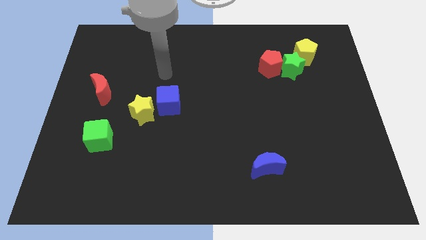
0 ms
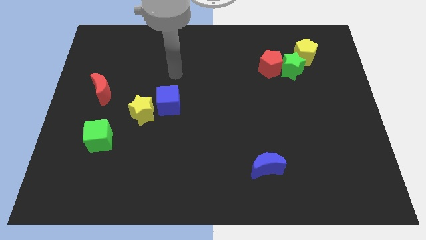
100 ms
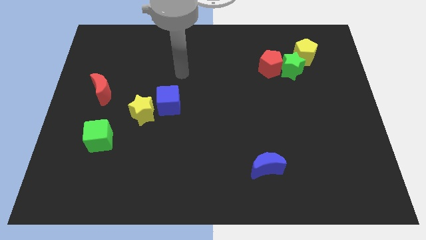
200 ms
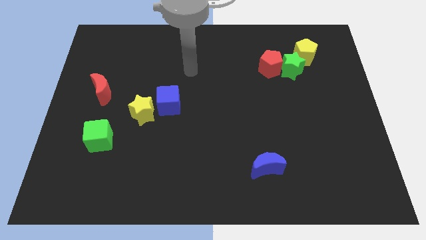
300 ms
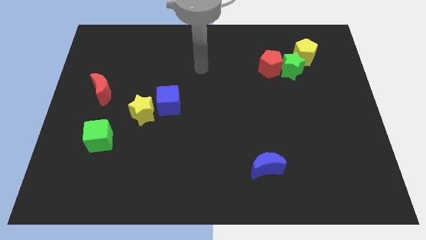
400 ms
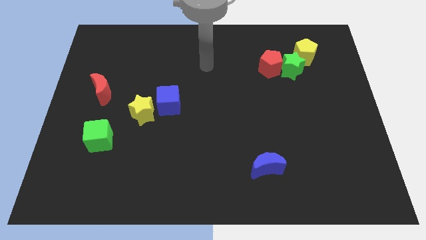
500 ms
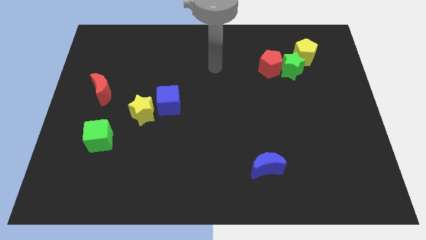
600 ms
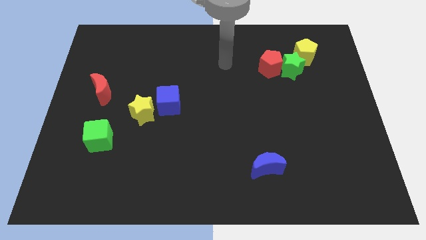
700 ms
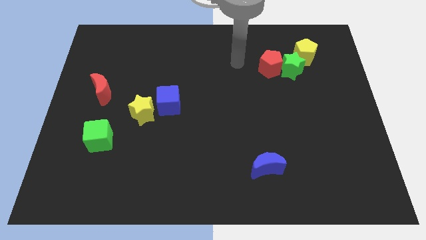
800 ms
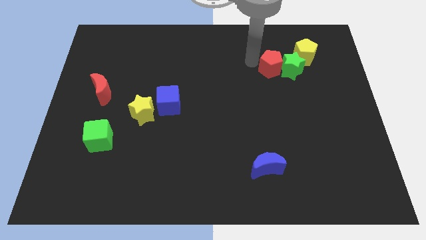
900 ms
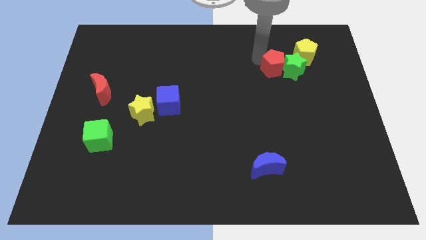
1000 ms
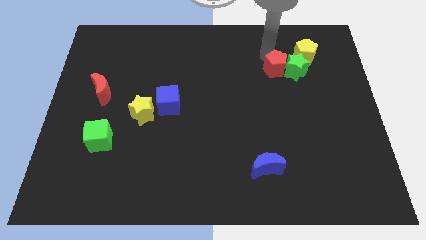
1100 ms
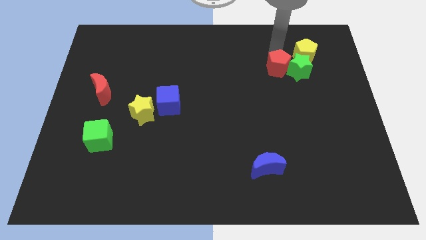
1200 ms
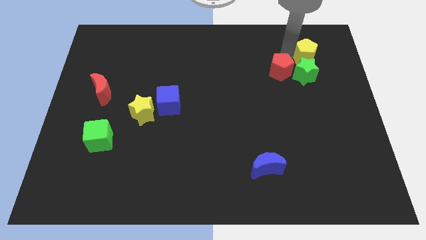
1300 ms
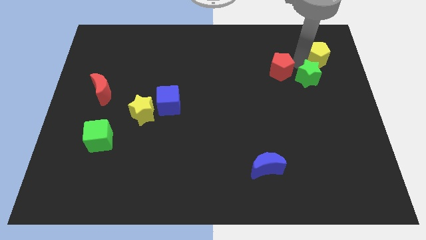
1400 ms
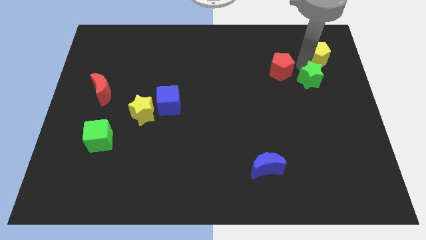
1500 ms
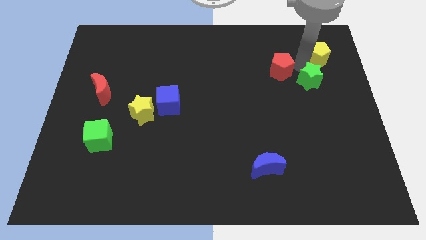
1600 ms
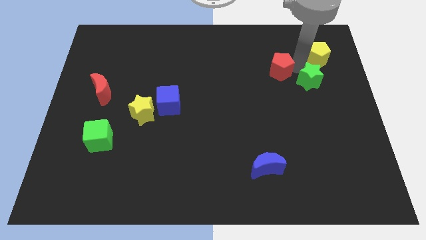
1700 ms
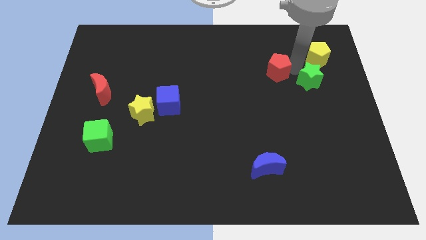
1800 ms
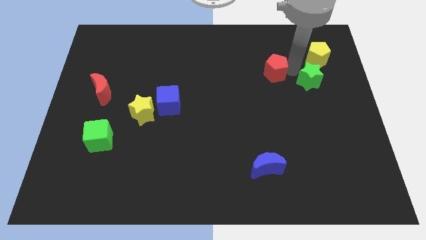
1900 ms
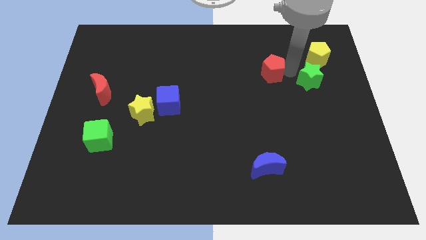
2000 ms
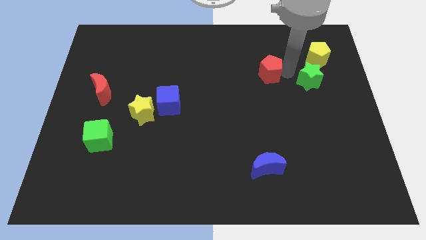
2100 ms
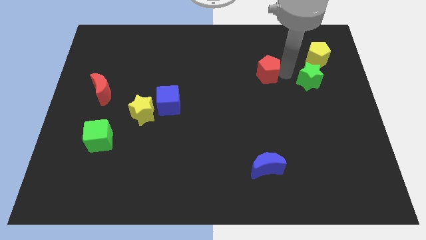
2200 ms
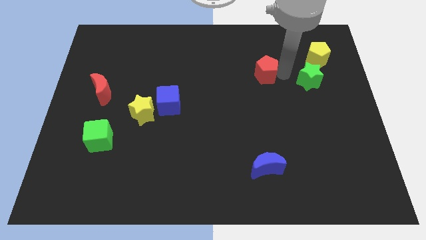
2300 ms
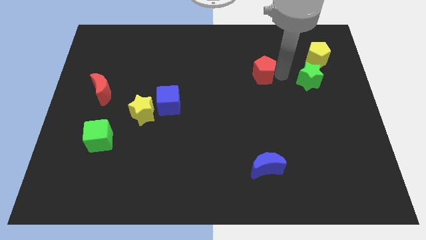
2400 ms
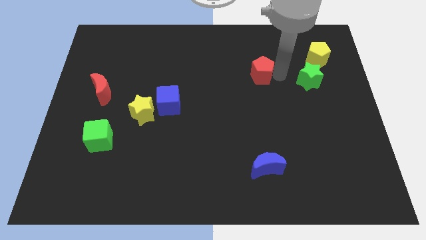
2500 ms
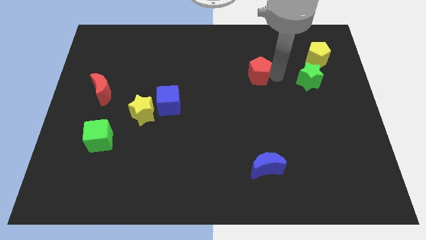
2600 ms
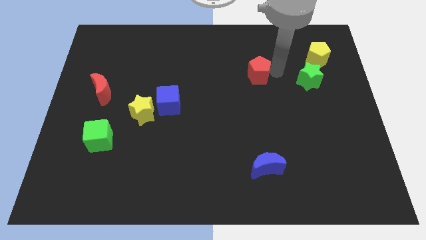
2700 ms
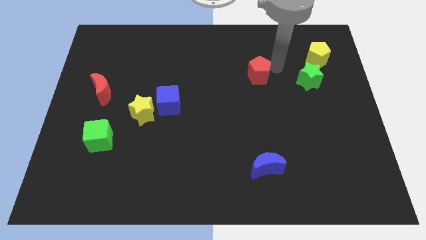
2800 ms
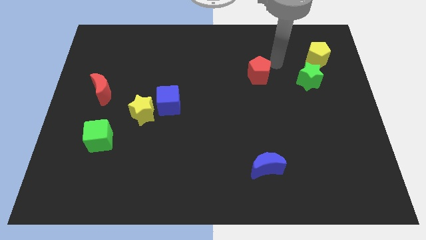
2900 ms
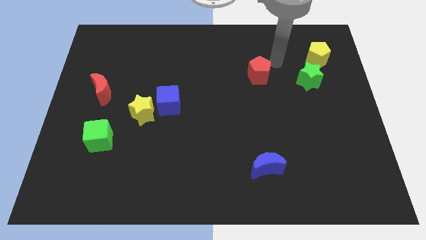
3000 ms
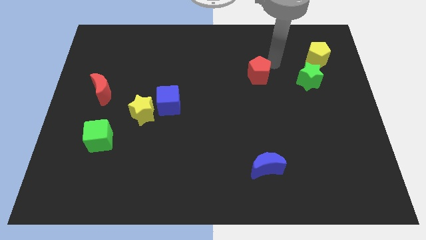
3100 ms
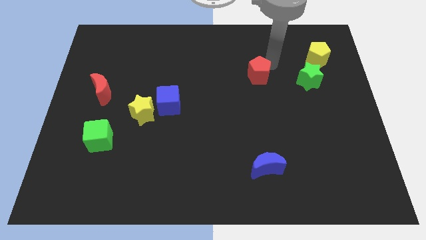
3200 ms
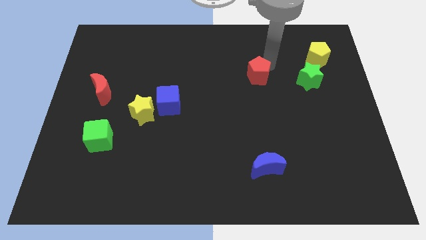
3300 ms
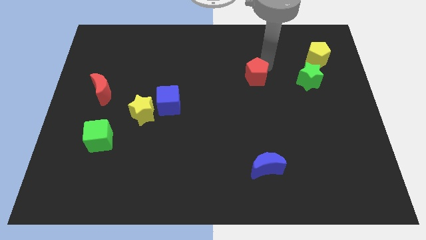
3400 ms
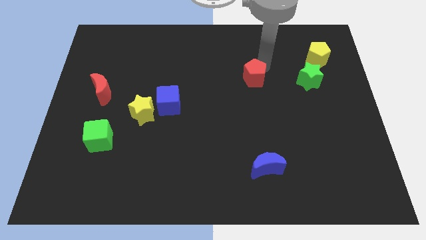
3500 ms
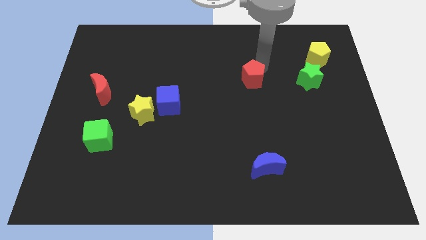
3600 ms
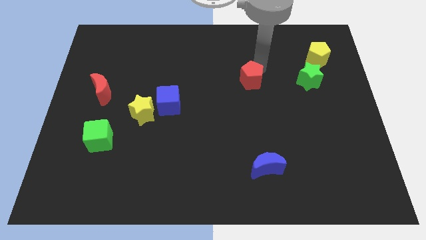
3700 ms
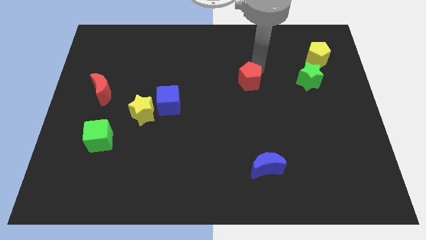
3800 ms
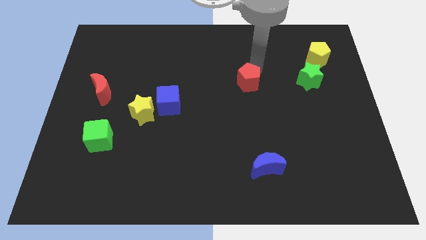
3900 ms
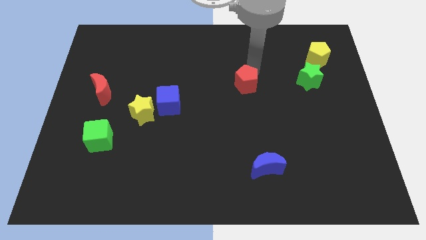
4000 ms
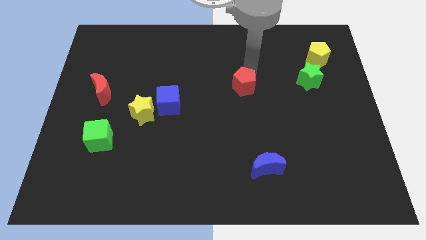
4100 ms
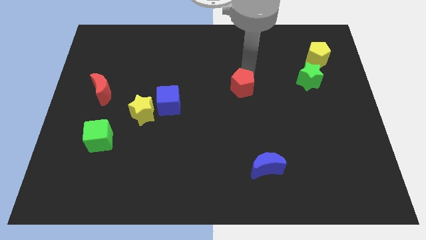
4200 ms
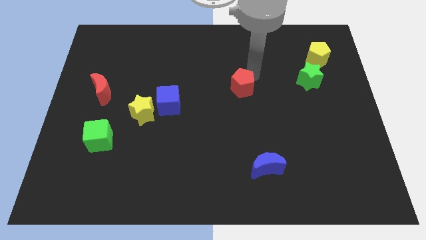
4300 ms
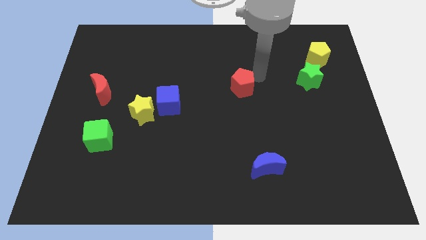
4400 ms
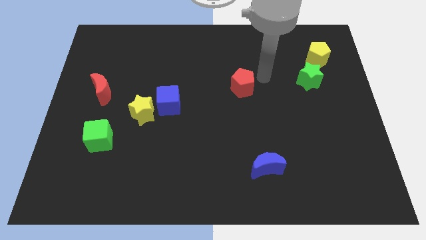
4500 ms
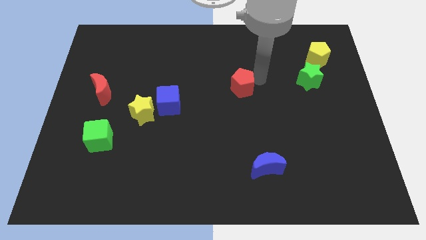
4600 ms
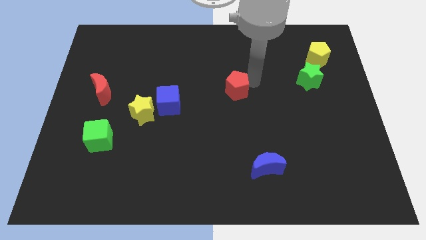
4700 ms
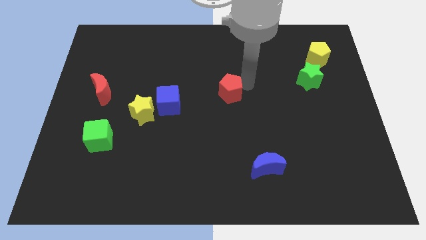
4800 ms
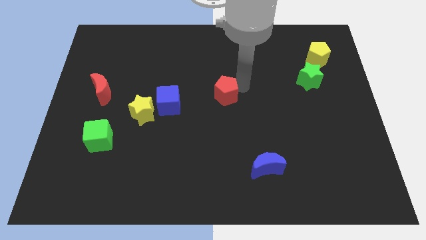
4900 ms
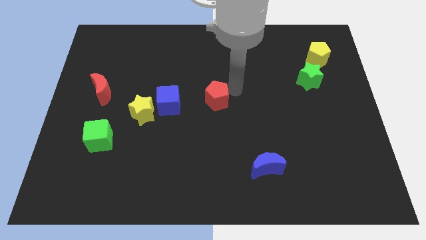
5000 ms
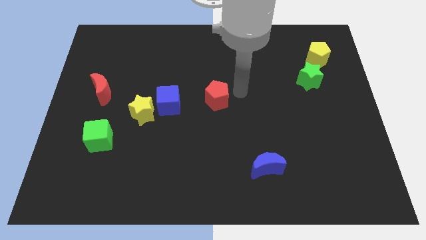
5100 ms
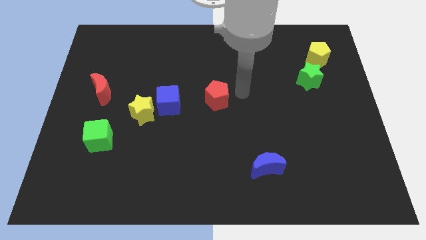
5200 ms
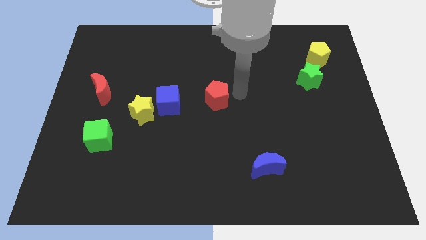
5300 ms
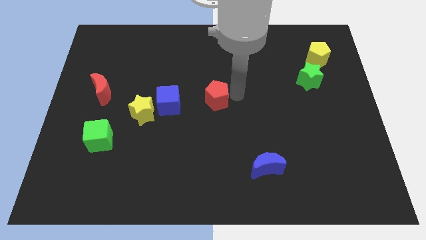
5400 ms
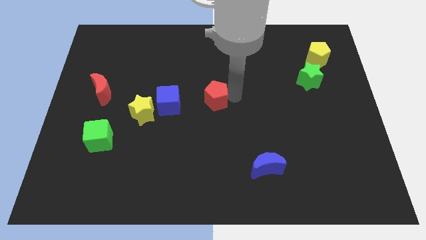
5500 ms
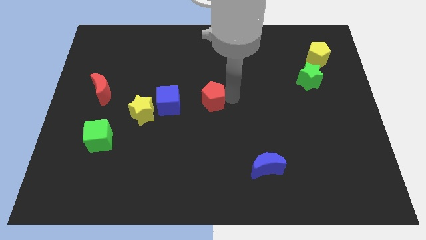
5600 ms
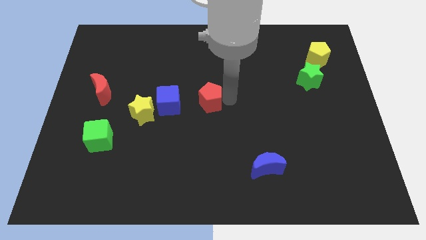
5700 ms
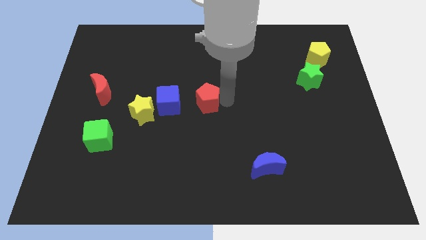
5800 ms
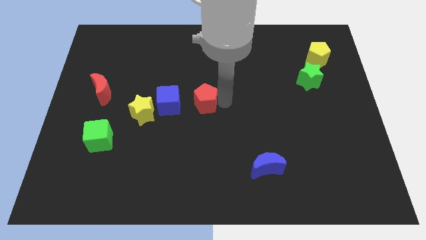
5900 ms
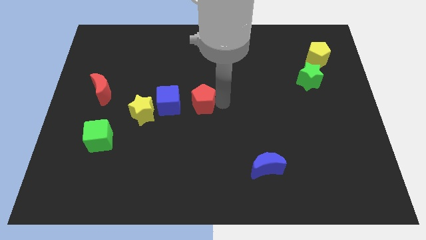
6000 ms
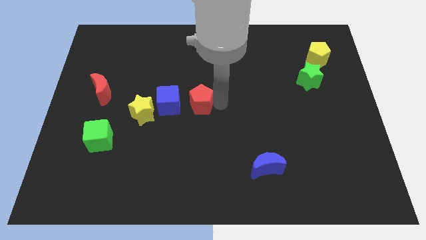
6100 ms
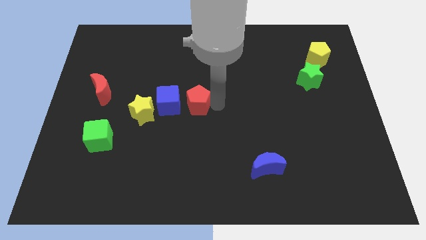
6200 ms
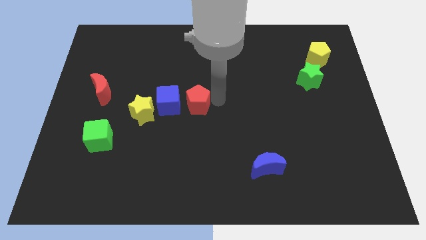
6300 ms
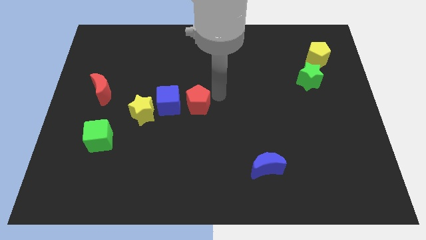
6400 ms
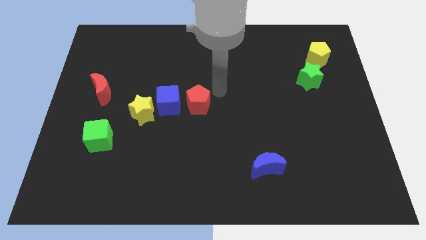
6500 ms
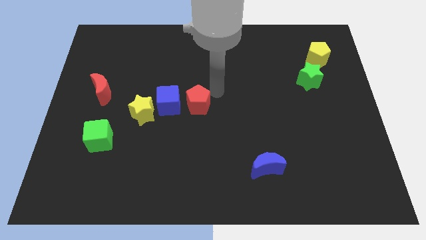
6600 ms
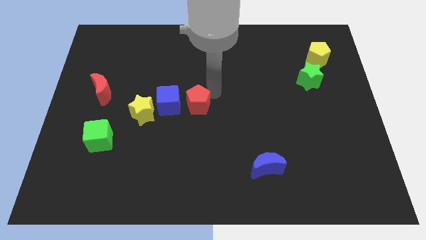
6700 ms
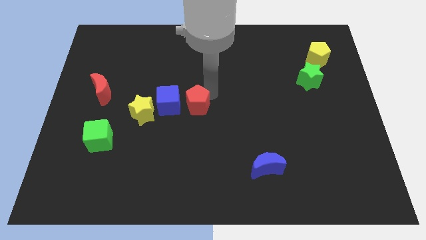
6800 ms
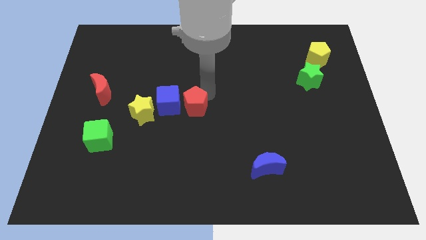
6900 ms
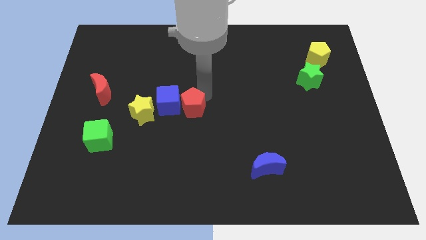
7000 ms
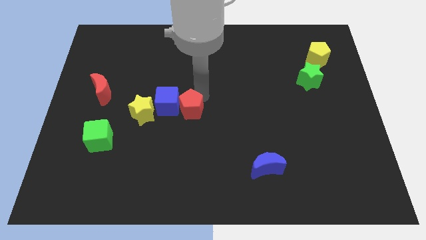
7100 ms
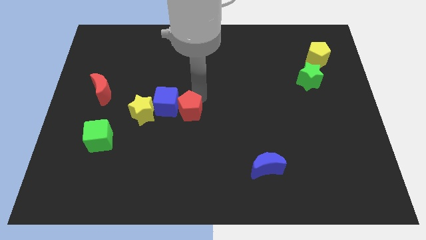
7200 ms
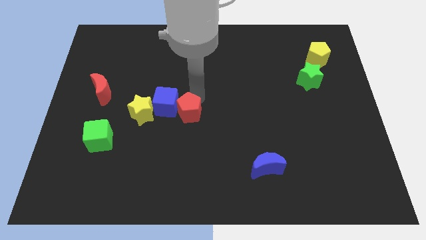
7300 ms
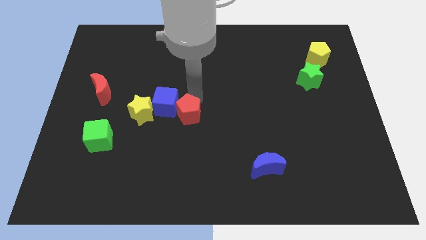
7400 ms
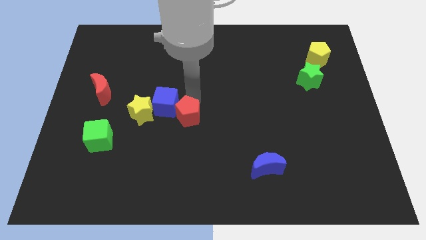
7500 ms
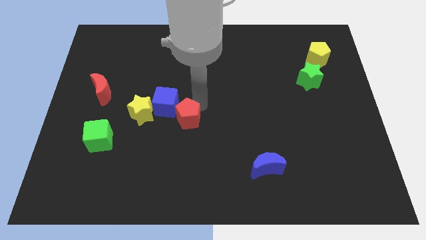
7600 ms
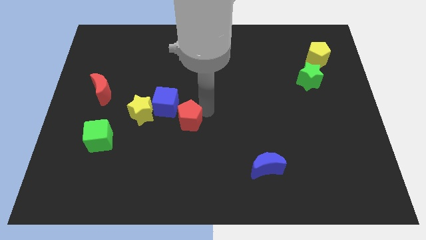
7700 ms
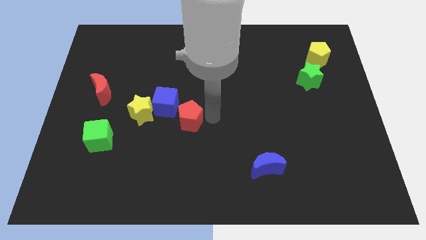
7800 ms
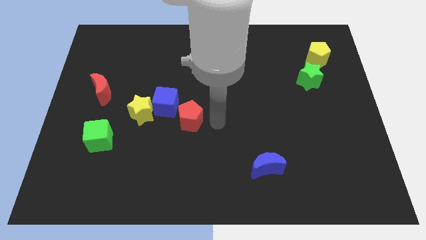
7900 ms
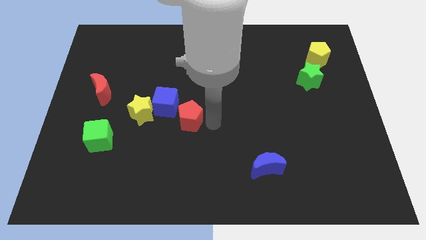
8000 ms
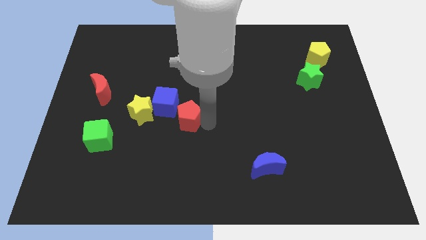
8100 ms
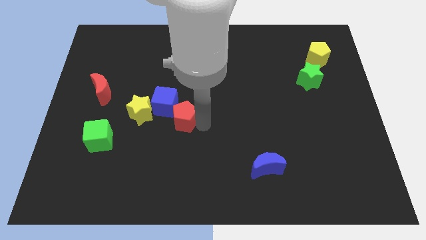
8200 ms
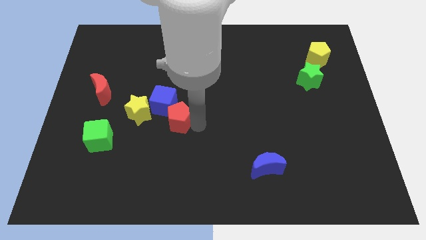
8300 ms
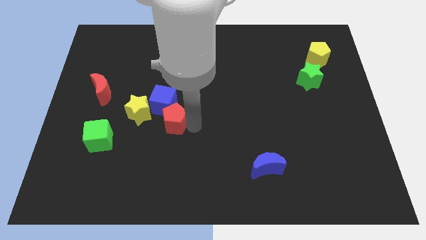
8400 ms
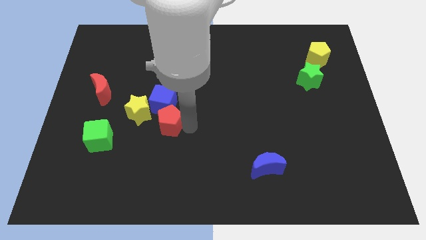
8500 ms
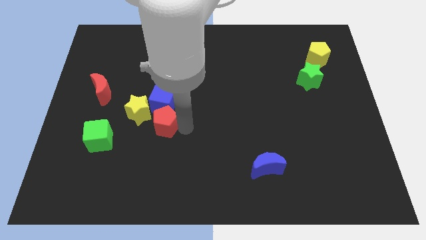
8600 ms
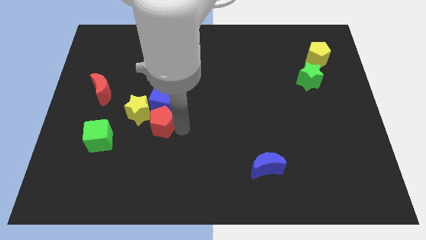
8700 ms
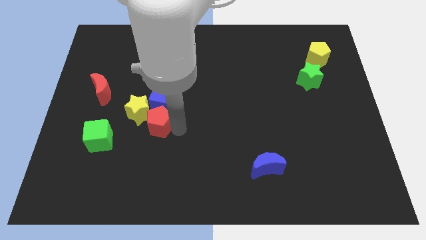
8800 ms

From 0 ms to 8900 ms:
move the red pentagon towards the yellow star
